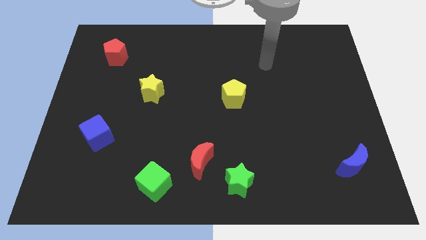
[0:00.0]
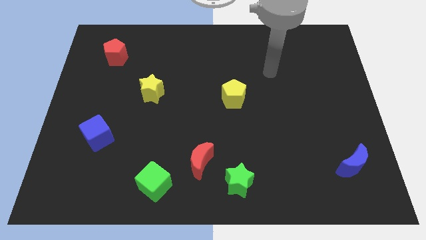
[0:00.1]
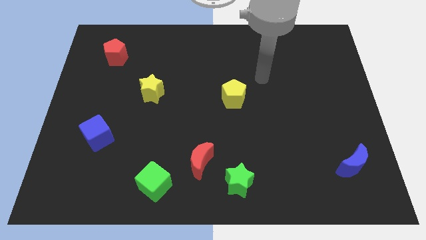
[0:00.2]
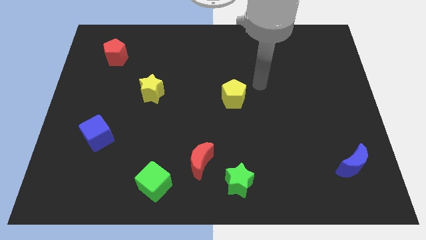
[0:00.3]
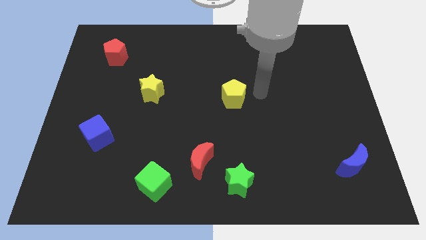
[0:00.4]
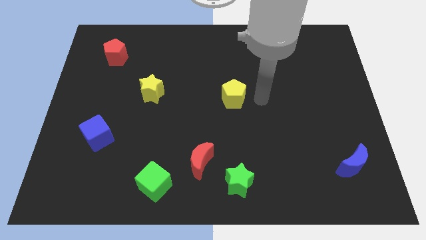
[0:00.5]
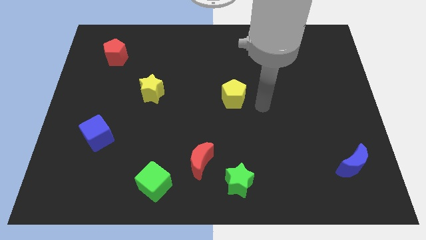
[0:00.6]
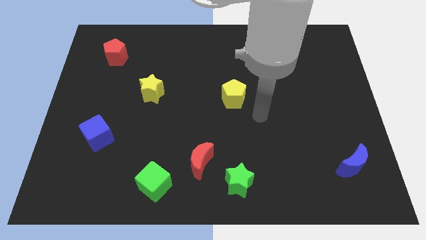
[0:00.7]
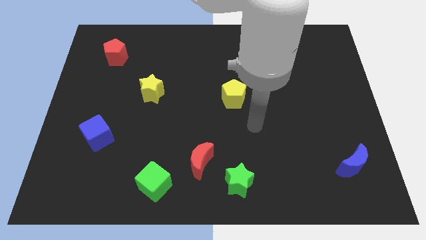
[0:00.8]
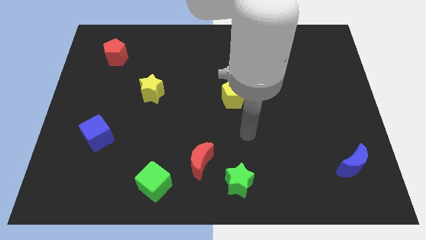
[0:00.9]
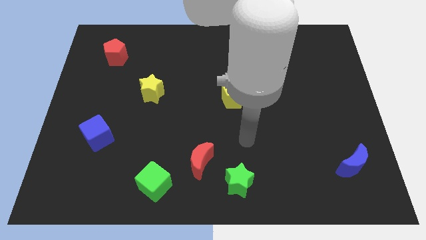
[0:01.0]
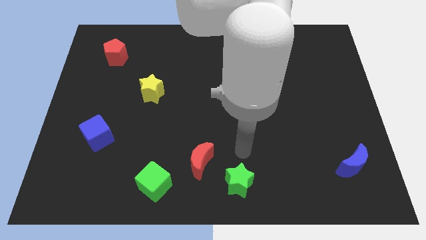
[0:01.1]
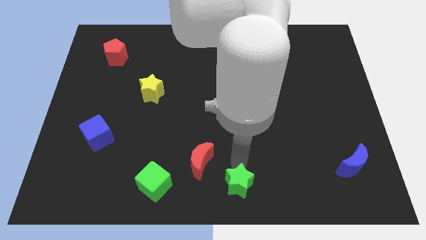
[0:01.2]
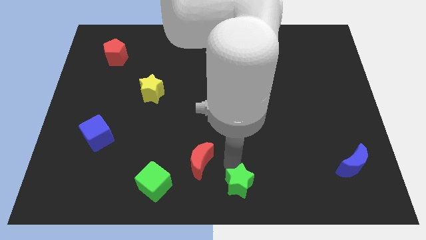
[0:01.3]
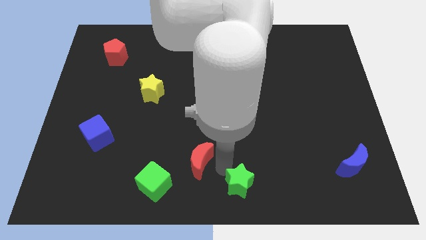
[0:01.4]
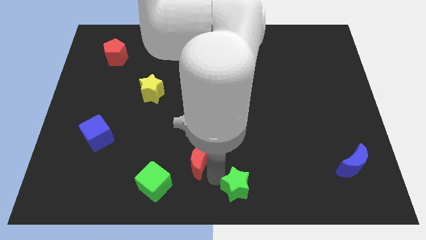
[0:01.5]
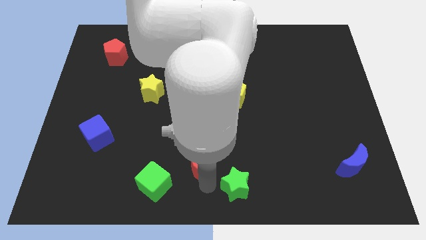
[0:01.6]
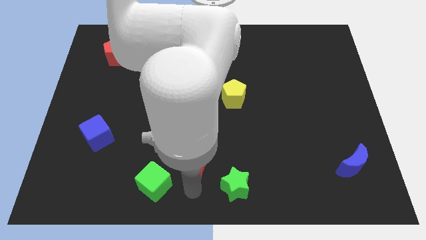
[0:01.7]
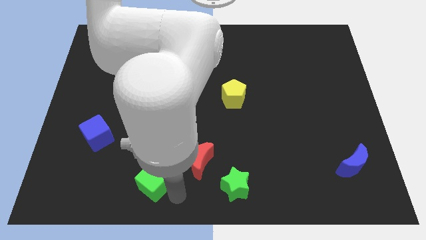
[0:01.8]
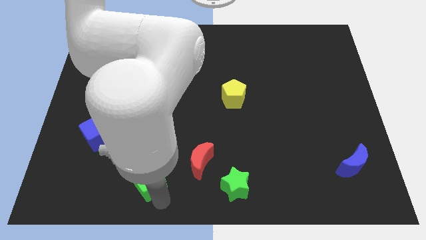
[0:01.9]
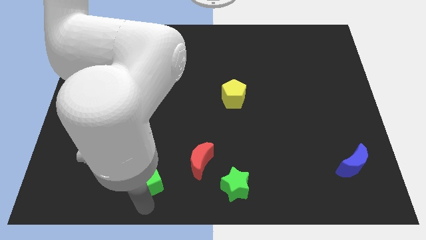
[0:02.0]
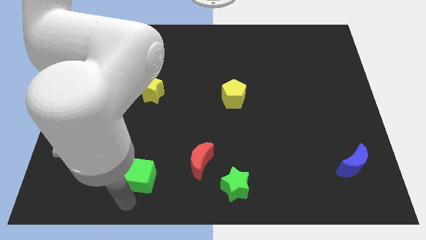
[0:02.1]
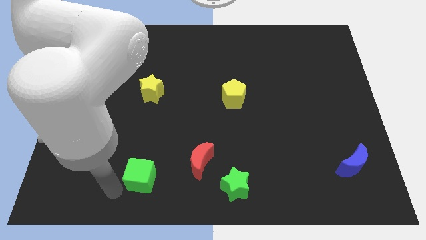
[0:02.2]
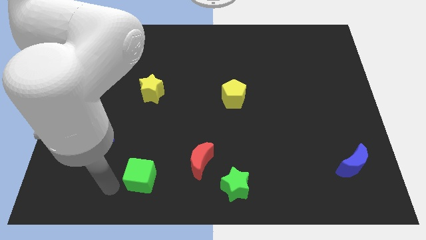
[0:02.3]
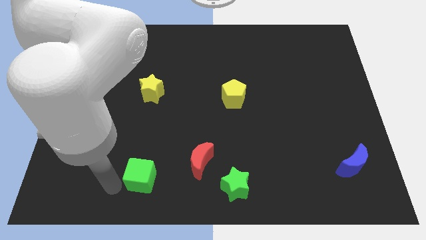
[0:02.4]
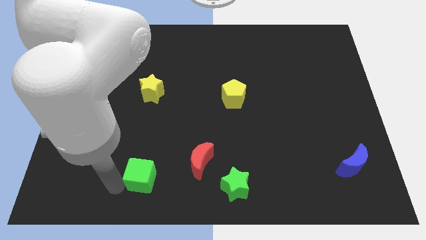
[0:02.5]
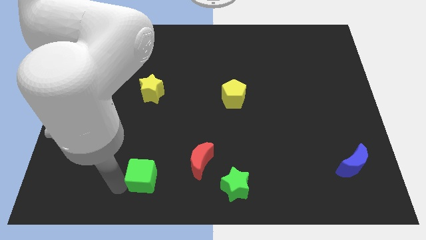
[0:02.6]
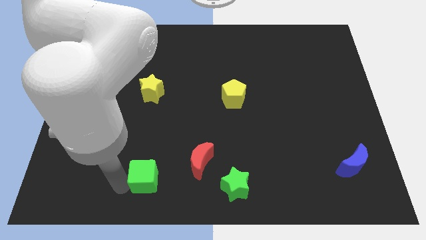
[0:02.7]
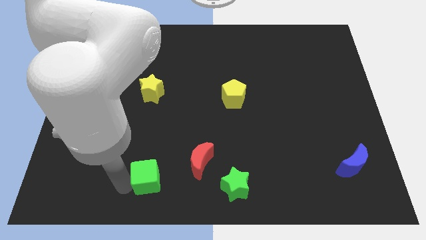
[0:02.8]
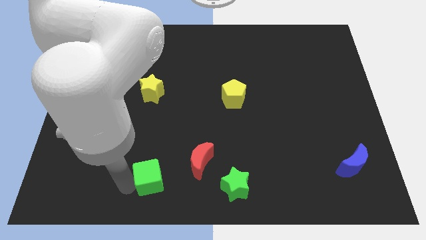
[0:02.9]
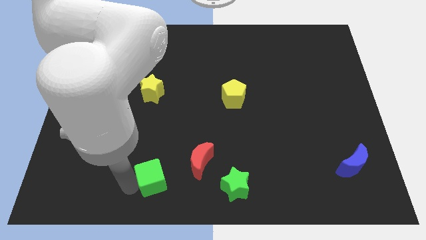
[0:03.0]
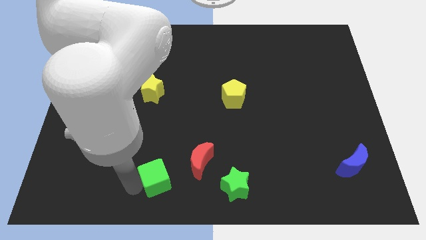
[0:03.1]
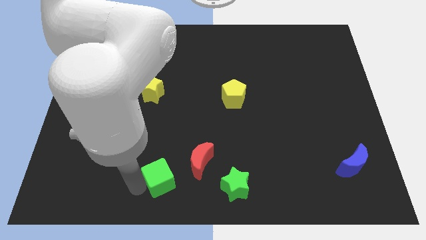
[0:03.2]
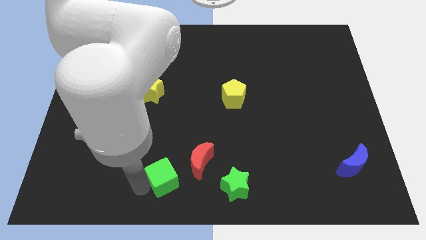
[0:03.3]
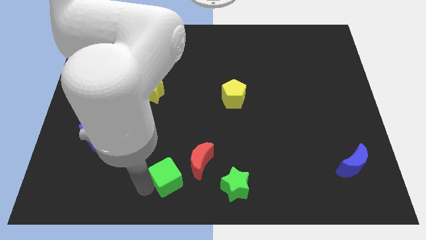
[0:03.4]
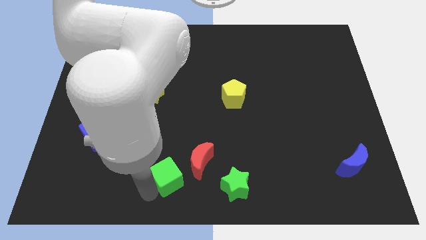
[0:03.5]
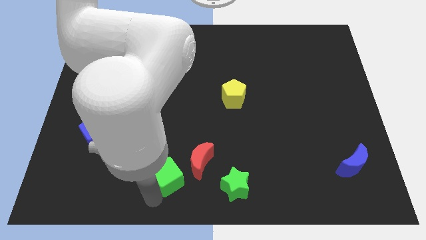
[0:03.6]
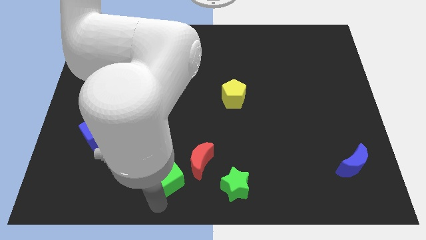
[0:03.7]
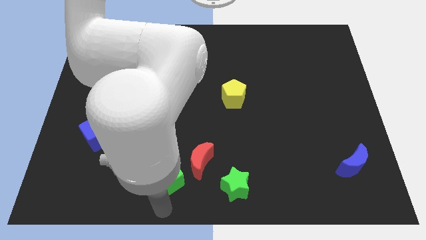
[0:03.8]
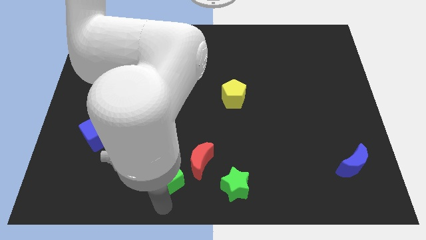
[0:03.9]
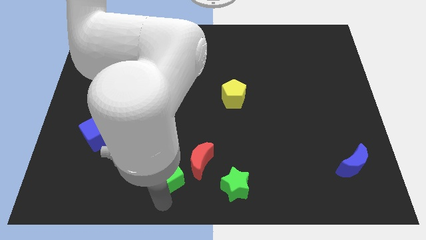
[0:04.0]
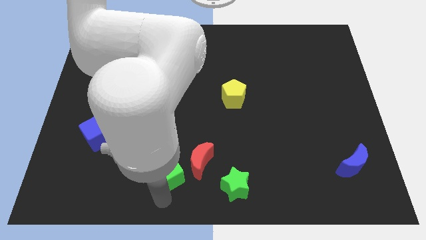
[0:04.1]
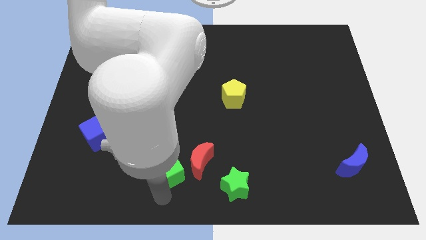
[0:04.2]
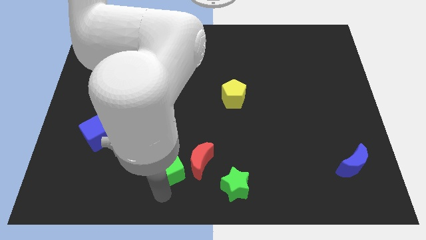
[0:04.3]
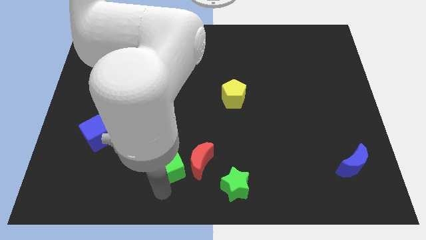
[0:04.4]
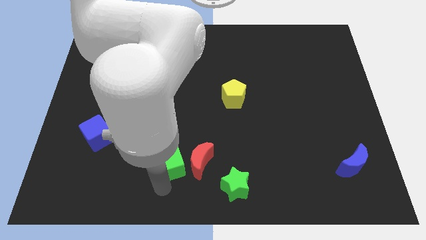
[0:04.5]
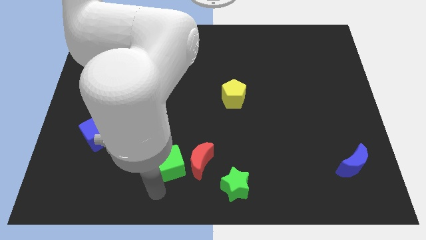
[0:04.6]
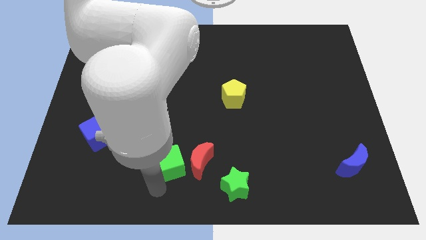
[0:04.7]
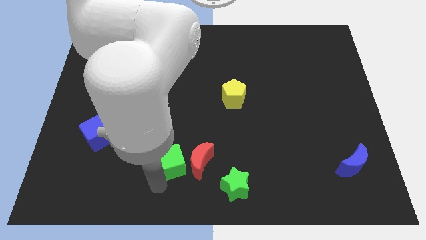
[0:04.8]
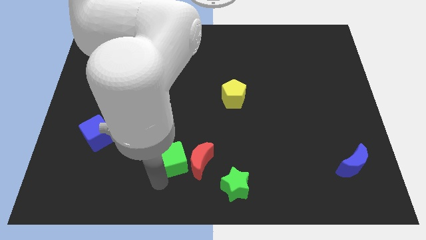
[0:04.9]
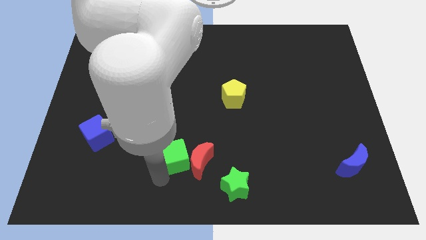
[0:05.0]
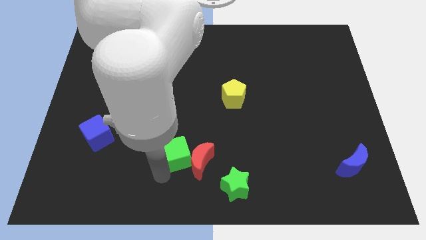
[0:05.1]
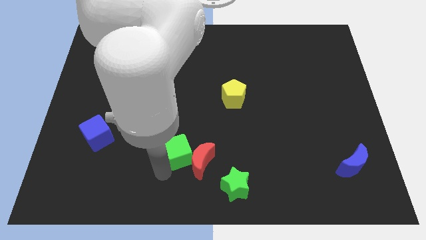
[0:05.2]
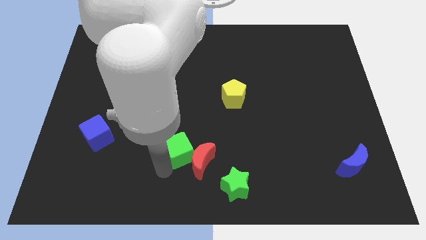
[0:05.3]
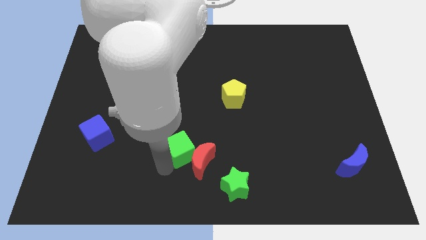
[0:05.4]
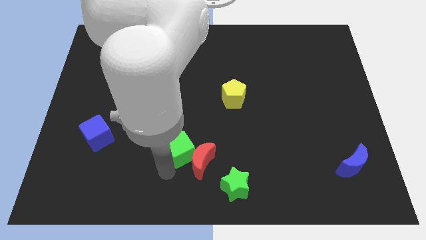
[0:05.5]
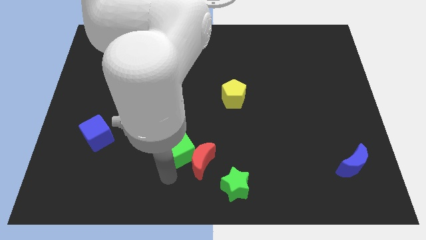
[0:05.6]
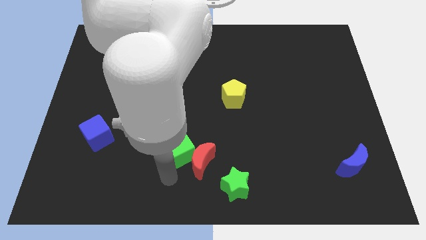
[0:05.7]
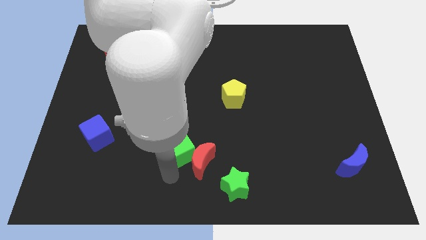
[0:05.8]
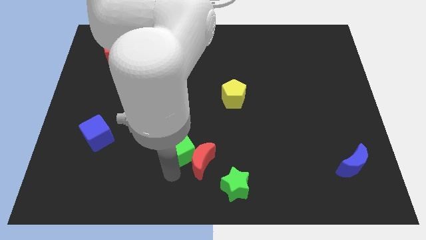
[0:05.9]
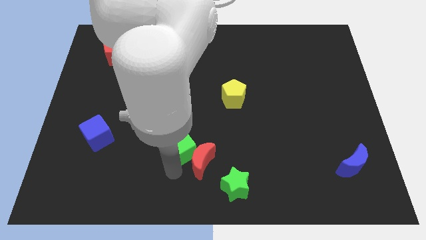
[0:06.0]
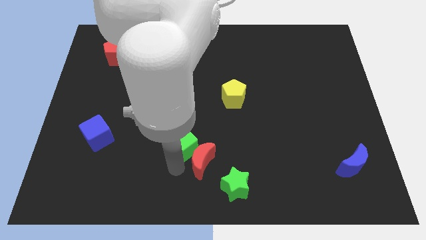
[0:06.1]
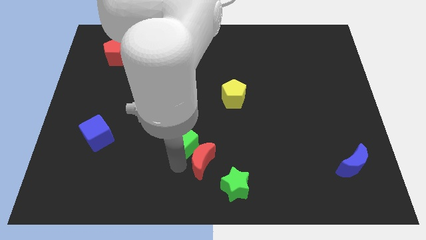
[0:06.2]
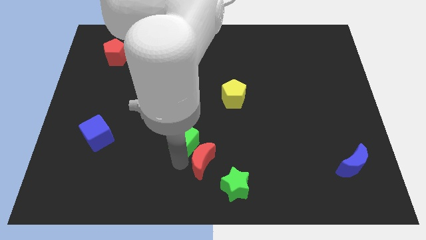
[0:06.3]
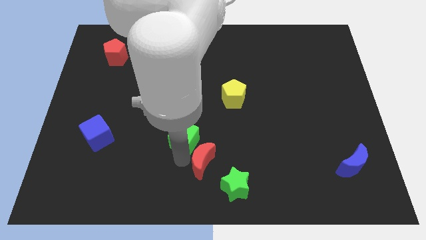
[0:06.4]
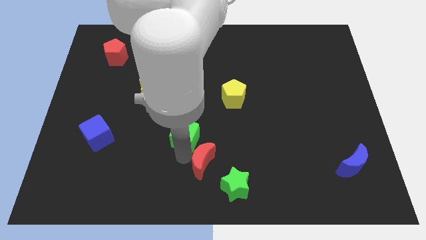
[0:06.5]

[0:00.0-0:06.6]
slide the green cube to the center

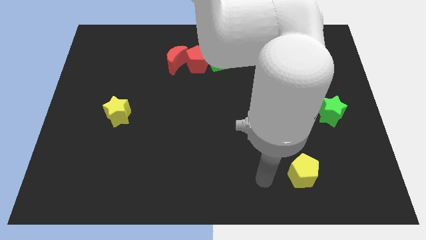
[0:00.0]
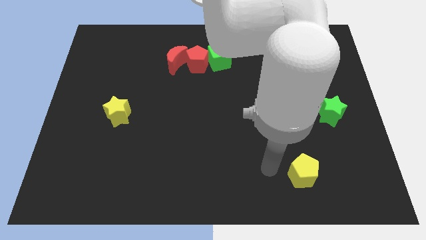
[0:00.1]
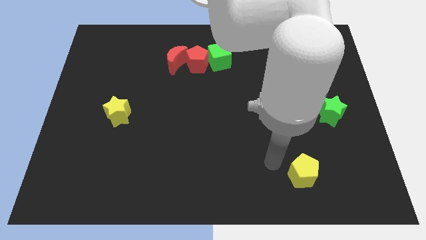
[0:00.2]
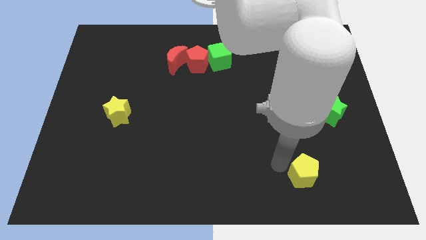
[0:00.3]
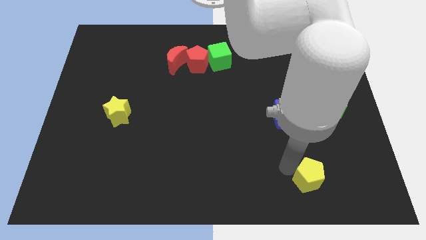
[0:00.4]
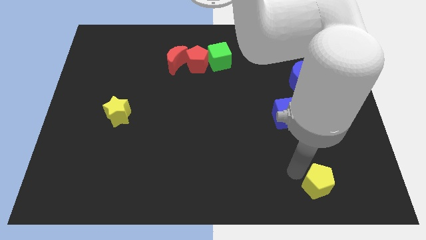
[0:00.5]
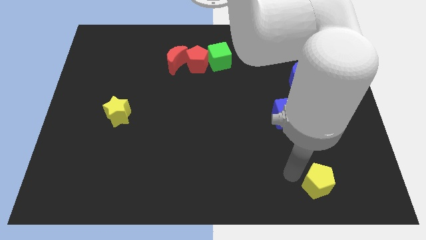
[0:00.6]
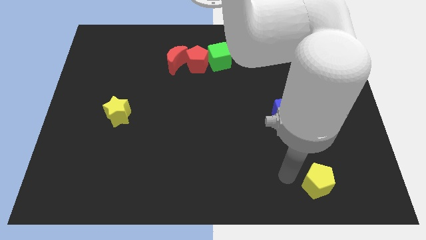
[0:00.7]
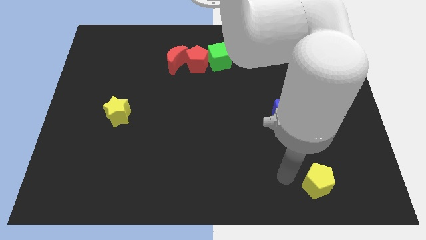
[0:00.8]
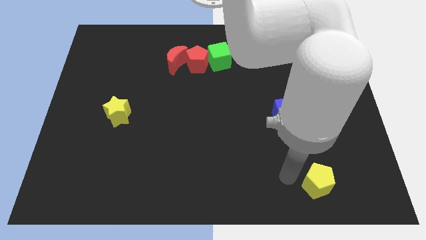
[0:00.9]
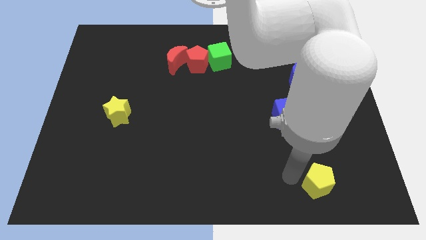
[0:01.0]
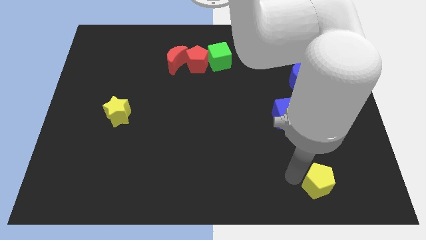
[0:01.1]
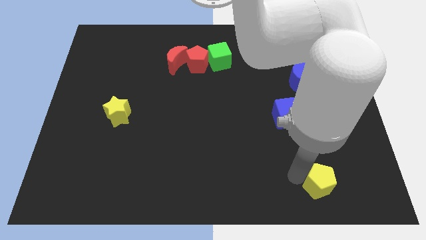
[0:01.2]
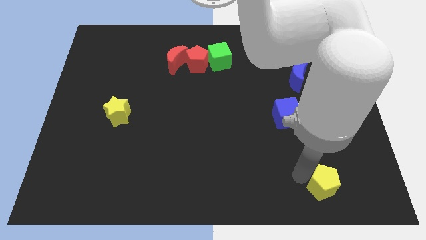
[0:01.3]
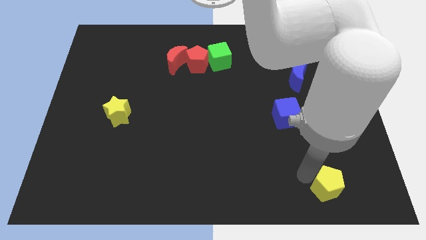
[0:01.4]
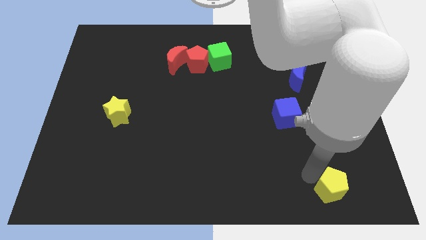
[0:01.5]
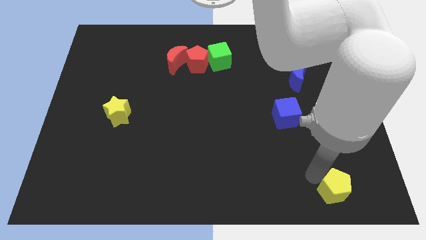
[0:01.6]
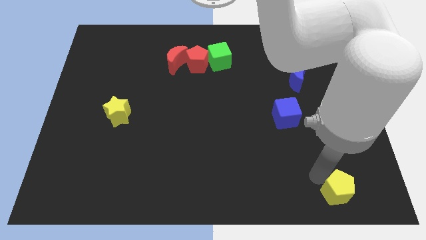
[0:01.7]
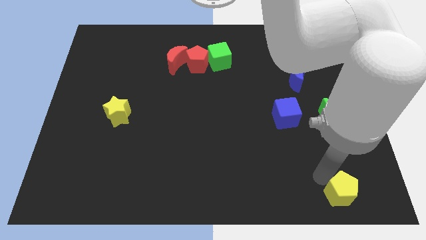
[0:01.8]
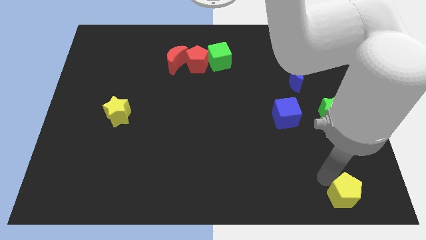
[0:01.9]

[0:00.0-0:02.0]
put the yellow pentagon to the lower right corner
